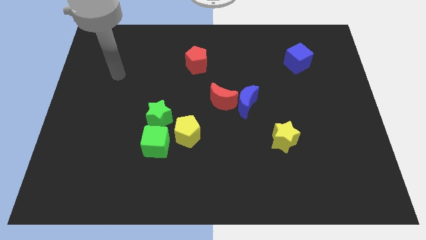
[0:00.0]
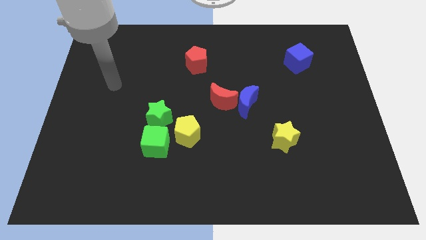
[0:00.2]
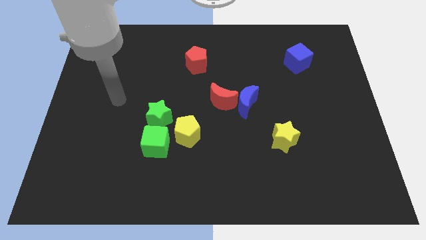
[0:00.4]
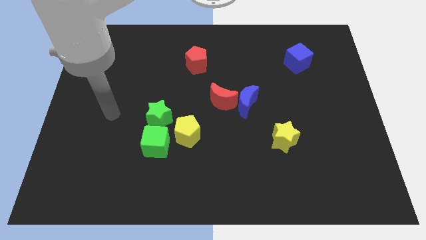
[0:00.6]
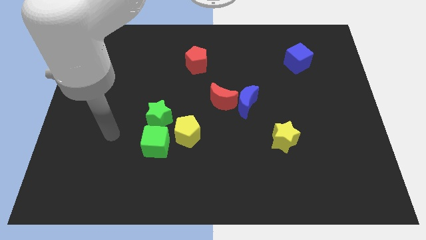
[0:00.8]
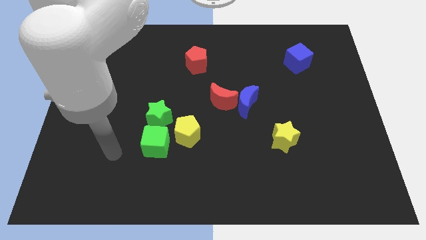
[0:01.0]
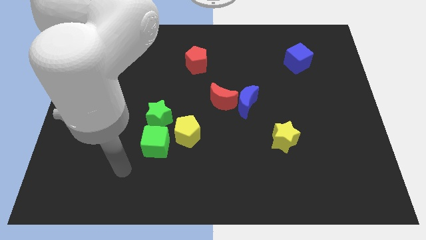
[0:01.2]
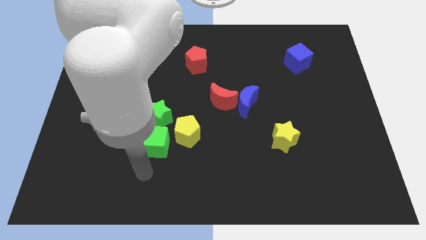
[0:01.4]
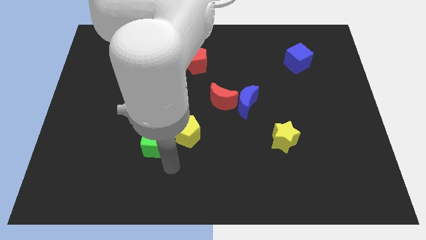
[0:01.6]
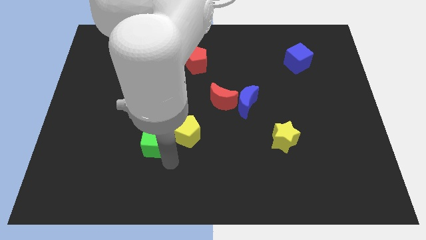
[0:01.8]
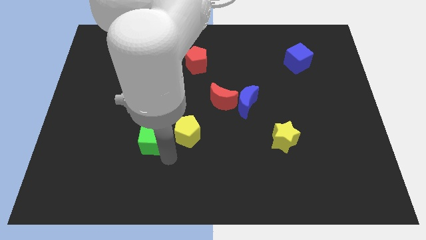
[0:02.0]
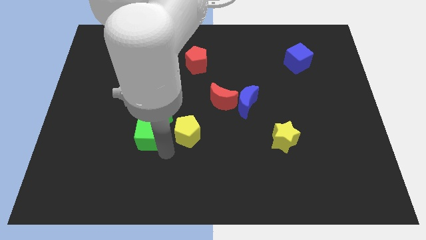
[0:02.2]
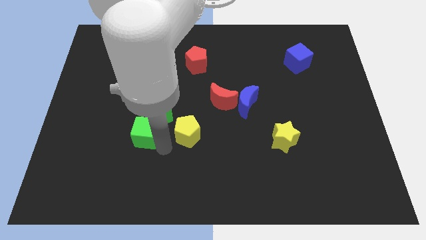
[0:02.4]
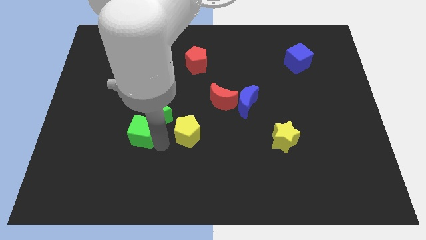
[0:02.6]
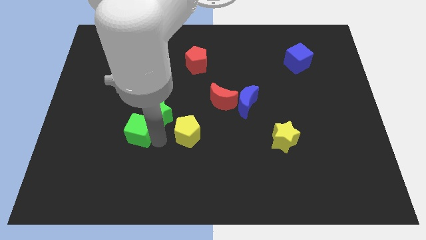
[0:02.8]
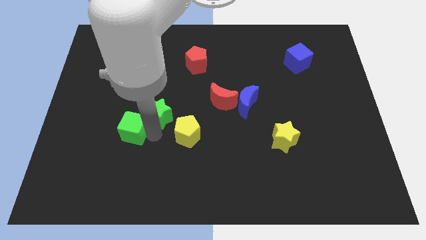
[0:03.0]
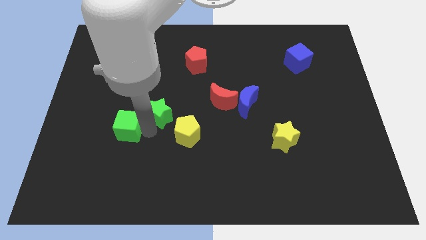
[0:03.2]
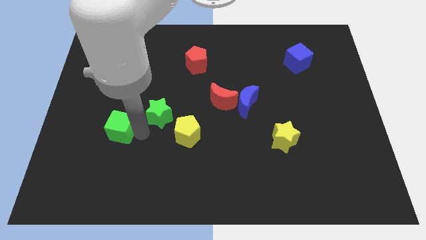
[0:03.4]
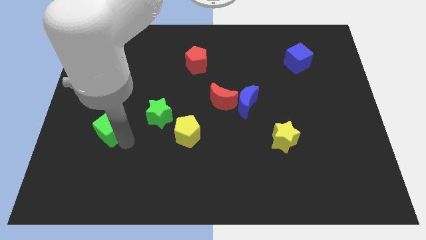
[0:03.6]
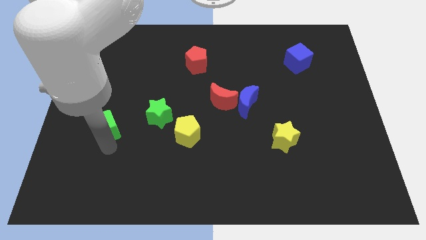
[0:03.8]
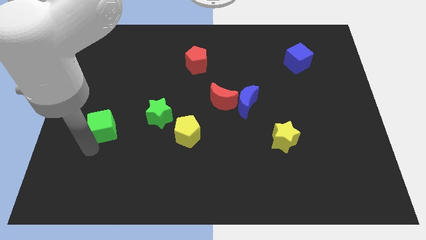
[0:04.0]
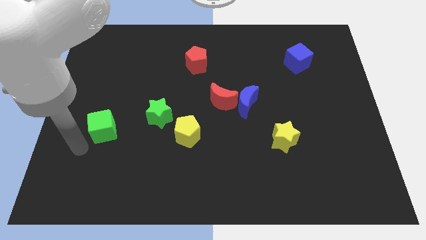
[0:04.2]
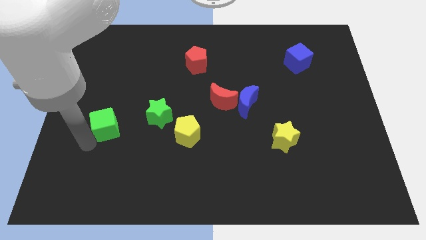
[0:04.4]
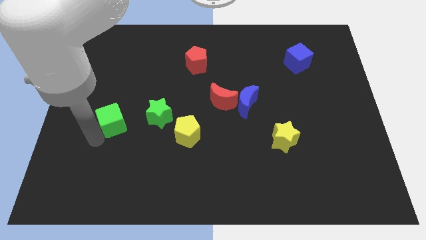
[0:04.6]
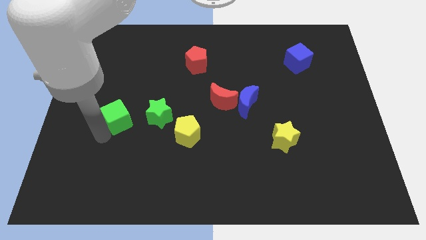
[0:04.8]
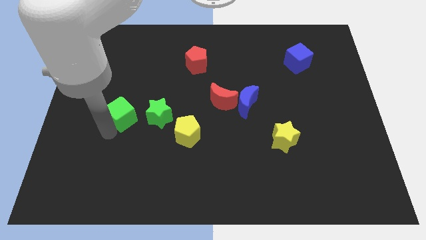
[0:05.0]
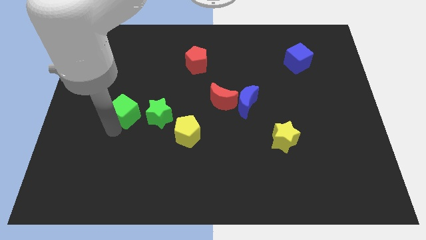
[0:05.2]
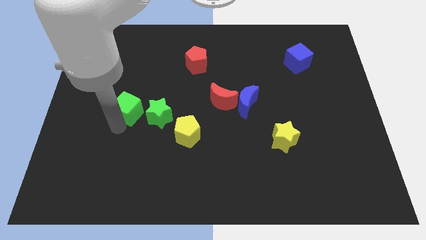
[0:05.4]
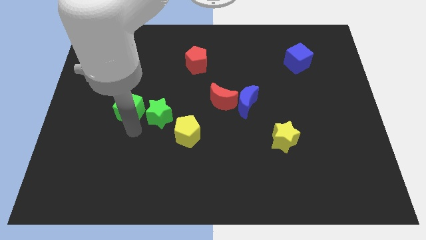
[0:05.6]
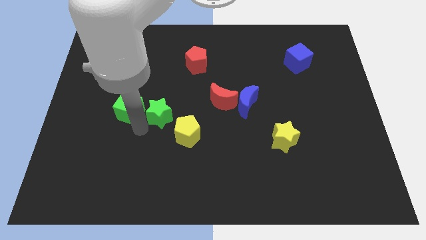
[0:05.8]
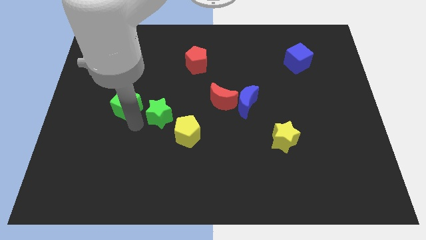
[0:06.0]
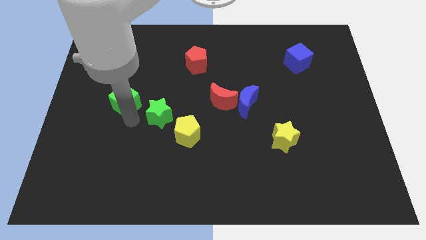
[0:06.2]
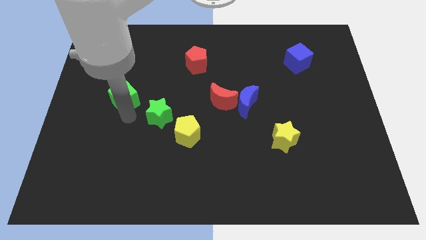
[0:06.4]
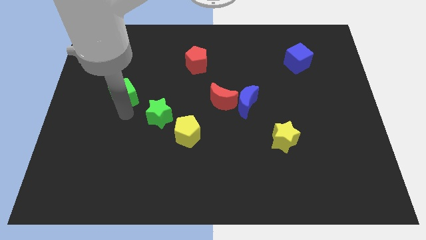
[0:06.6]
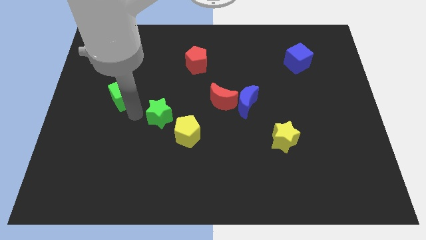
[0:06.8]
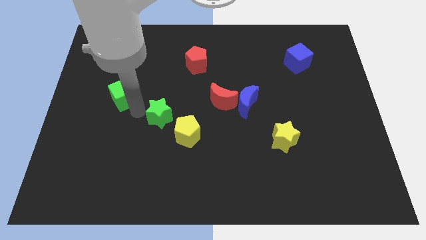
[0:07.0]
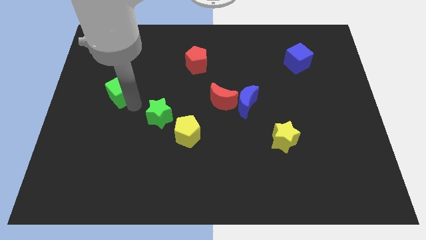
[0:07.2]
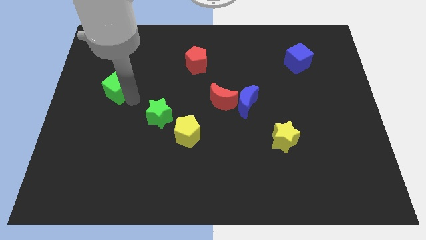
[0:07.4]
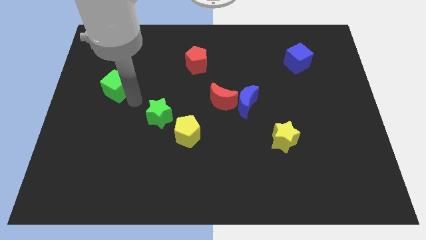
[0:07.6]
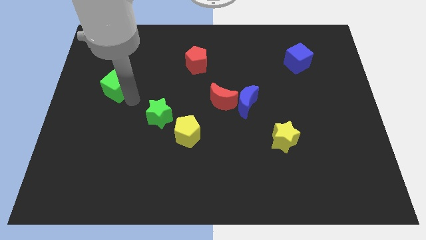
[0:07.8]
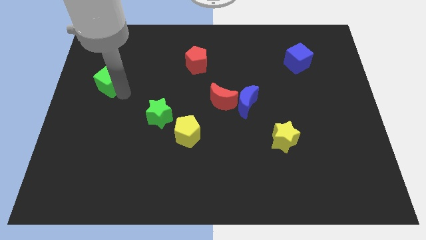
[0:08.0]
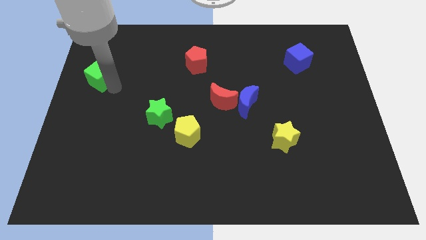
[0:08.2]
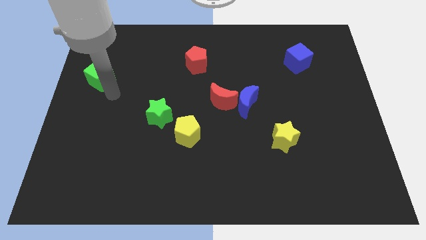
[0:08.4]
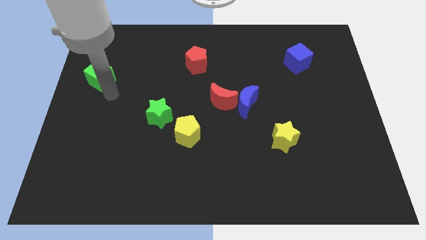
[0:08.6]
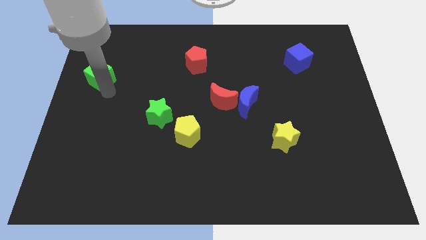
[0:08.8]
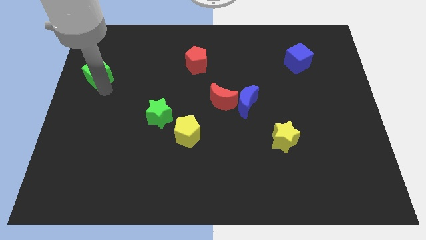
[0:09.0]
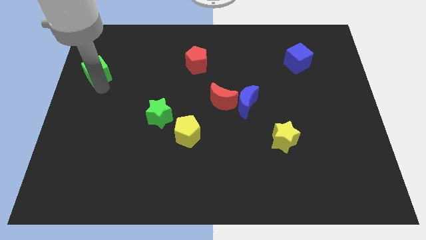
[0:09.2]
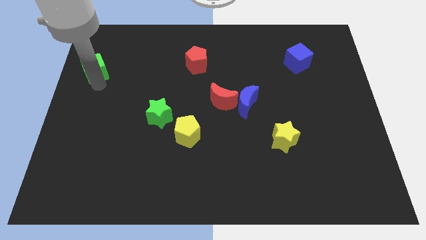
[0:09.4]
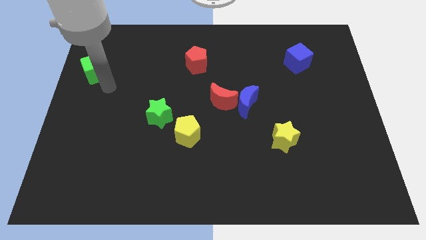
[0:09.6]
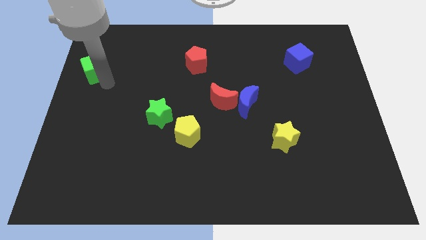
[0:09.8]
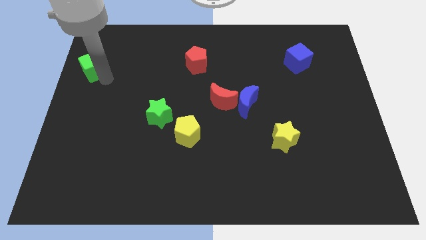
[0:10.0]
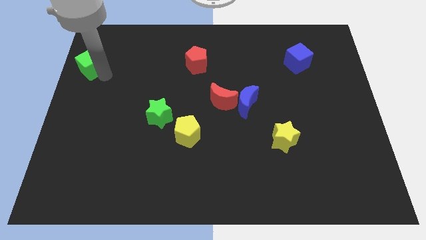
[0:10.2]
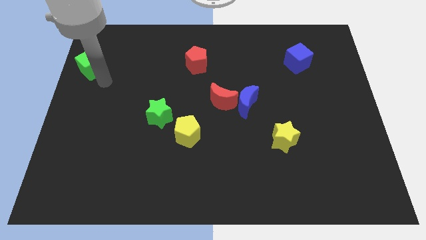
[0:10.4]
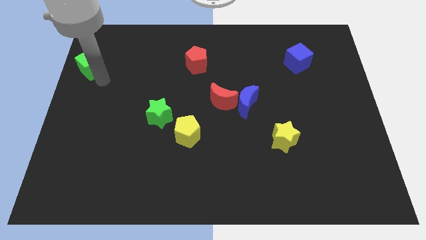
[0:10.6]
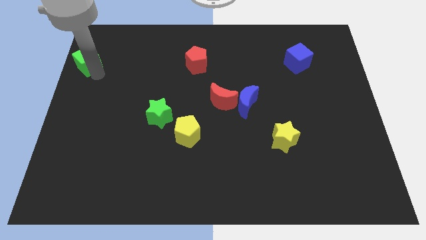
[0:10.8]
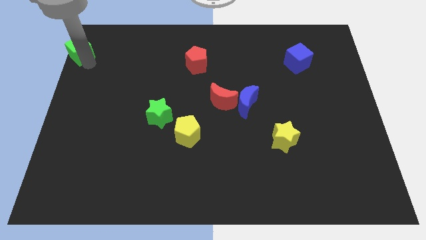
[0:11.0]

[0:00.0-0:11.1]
move the green cube to the top left corner
